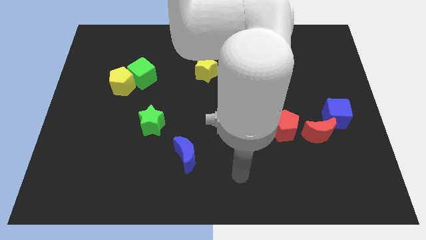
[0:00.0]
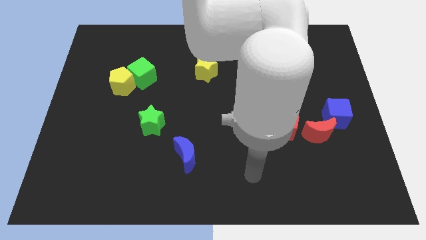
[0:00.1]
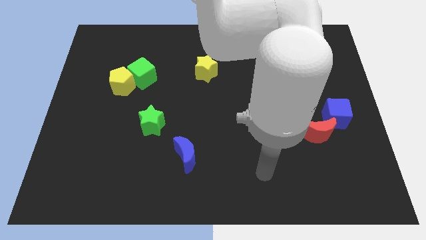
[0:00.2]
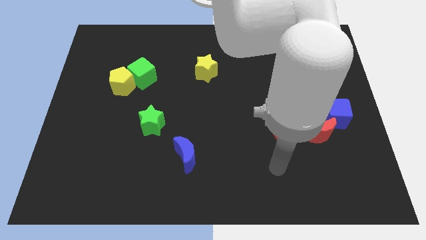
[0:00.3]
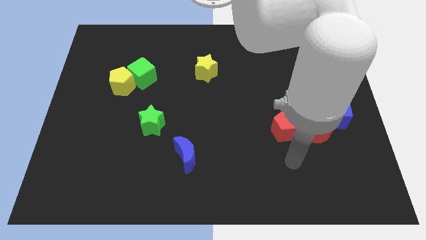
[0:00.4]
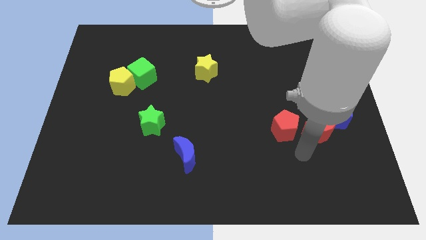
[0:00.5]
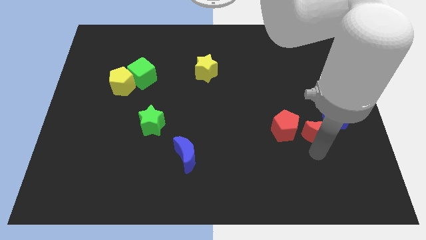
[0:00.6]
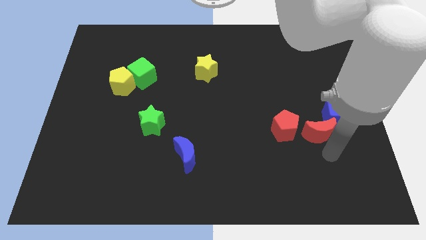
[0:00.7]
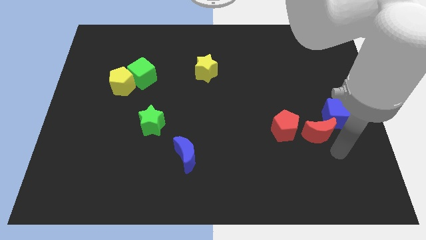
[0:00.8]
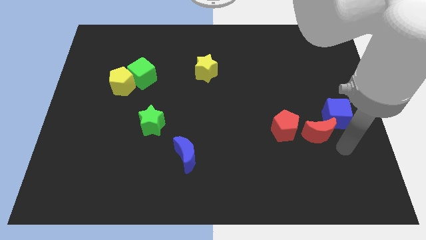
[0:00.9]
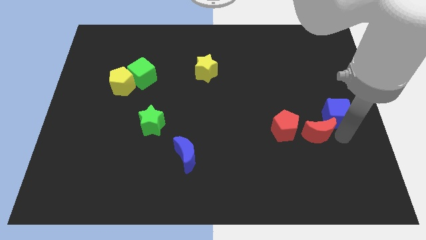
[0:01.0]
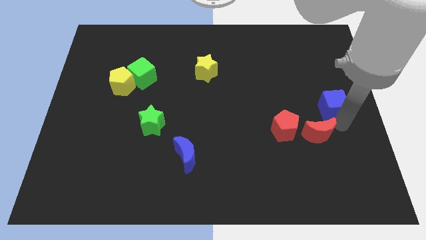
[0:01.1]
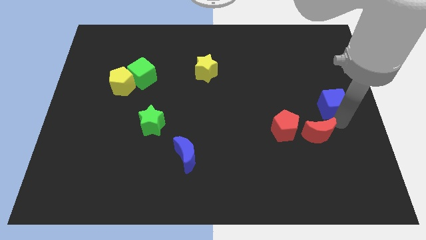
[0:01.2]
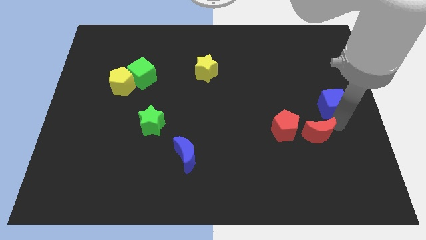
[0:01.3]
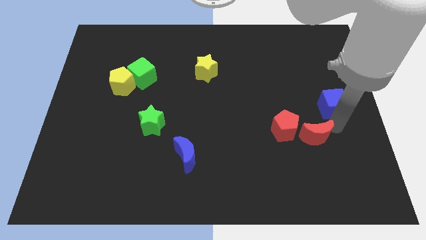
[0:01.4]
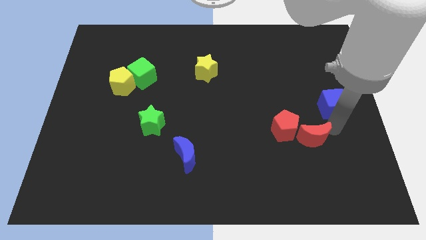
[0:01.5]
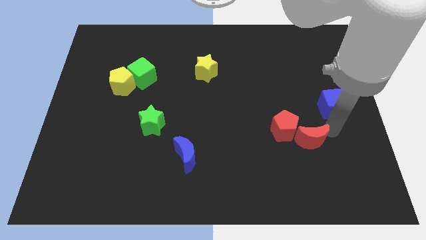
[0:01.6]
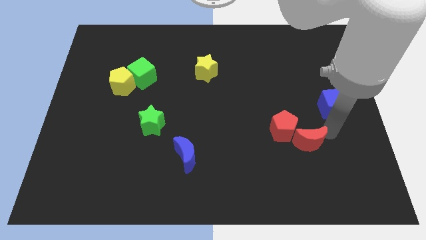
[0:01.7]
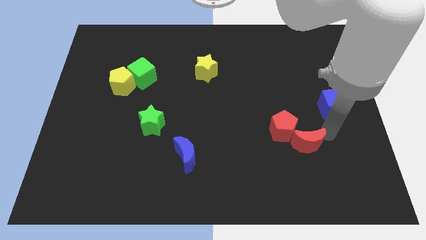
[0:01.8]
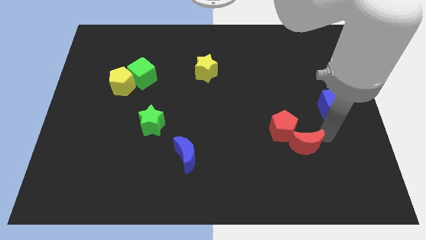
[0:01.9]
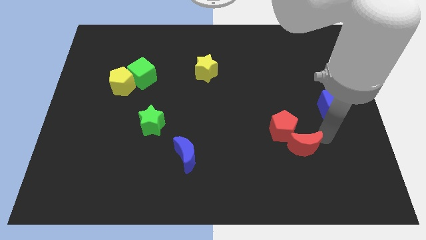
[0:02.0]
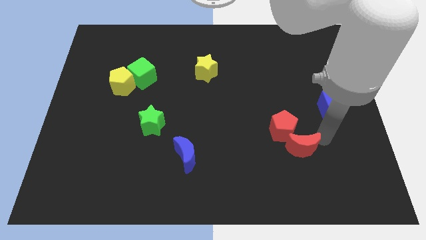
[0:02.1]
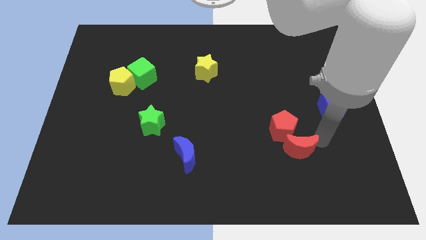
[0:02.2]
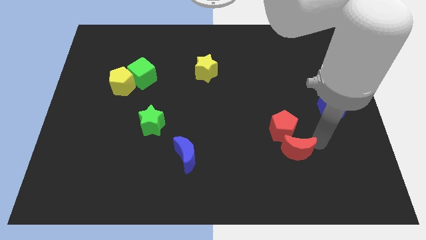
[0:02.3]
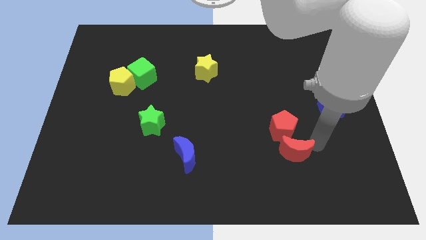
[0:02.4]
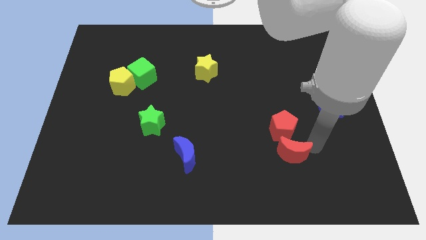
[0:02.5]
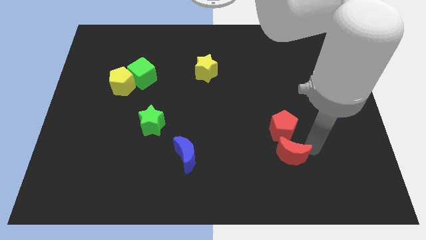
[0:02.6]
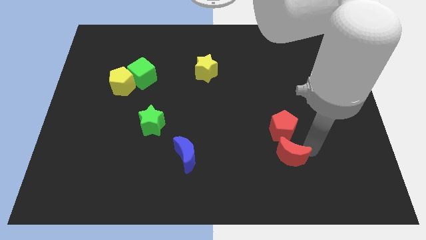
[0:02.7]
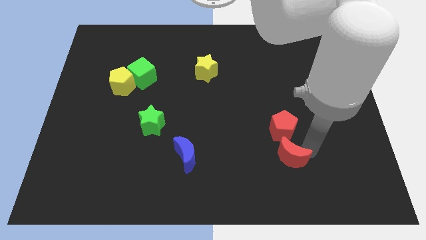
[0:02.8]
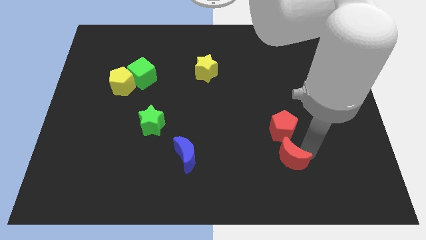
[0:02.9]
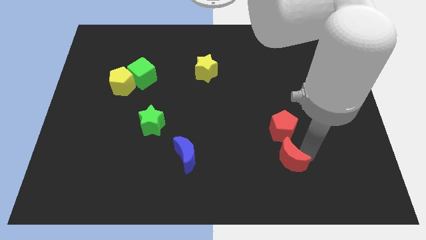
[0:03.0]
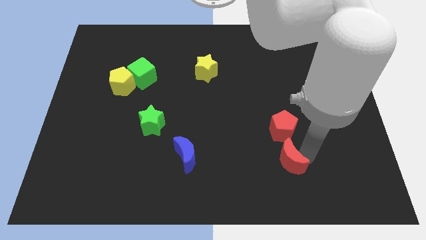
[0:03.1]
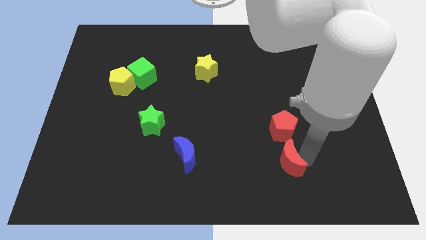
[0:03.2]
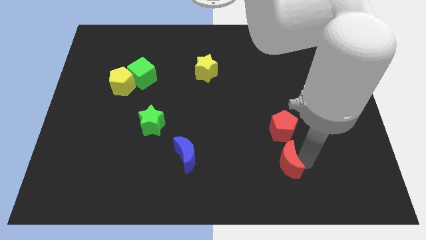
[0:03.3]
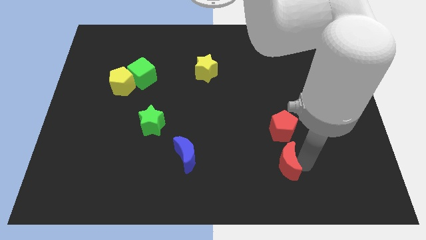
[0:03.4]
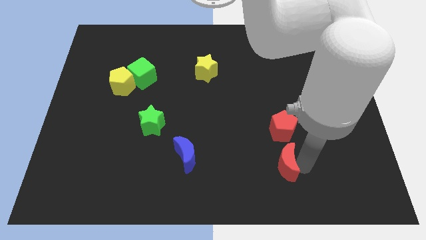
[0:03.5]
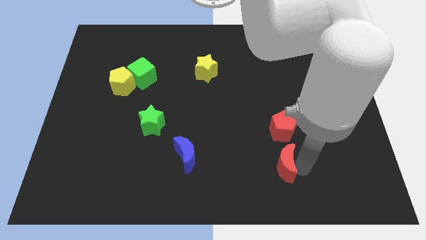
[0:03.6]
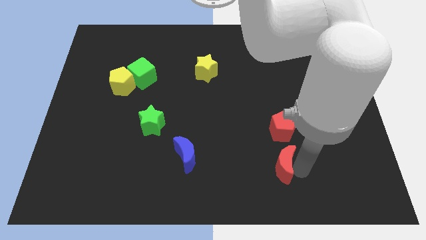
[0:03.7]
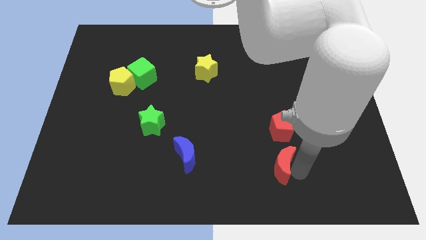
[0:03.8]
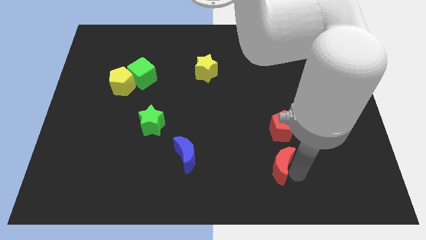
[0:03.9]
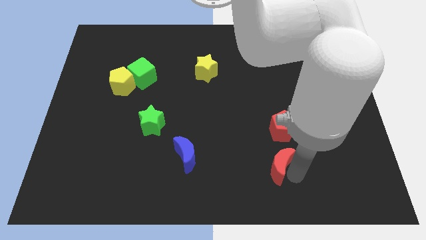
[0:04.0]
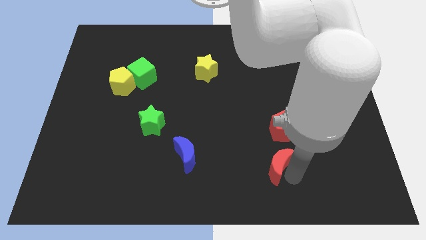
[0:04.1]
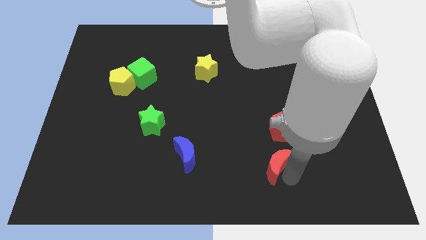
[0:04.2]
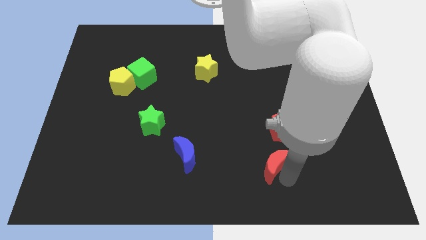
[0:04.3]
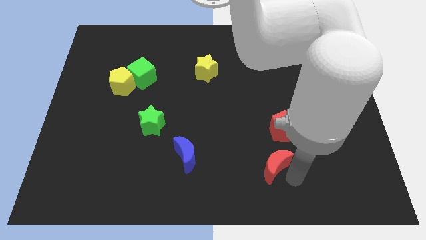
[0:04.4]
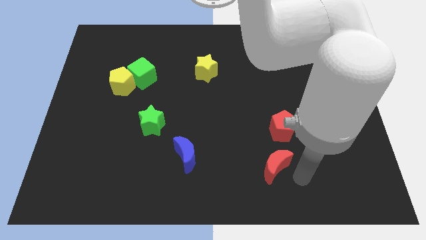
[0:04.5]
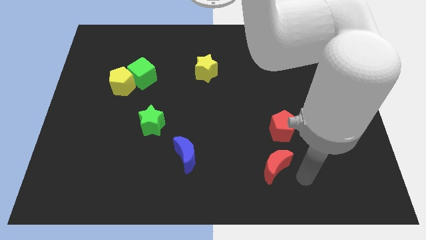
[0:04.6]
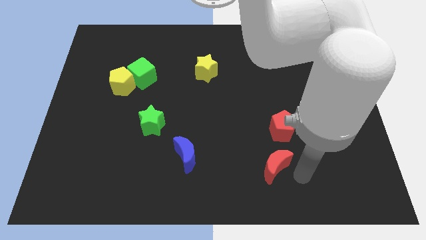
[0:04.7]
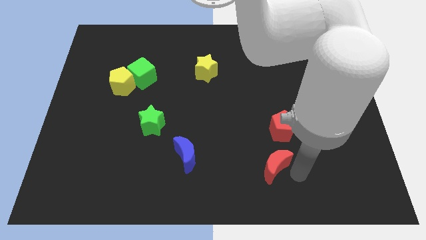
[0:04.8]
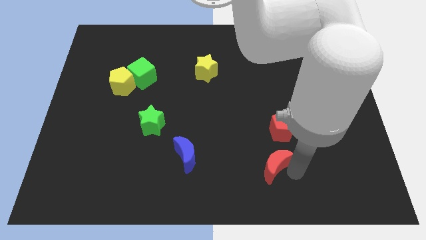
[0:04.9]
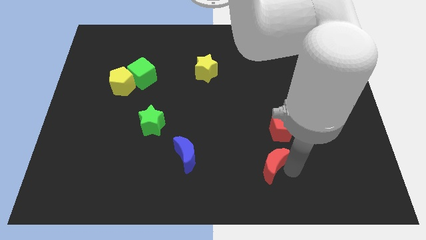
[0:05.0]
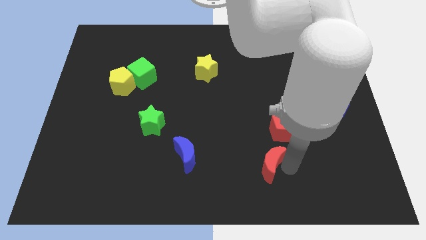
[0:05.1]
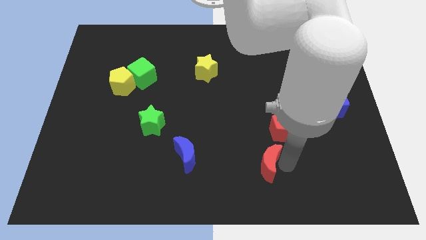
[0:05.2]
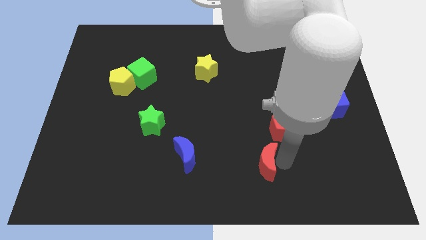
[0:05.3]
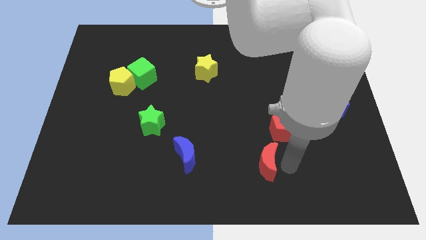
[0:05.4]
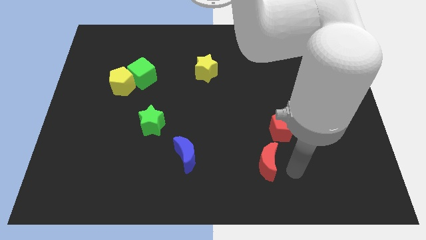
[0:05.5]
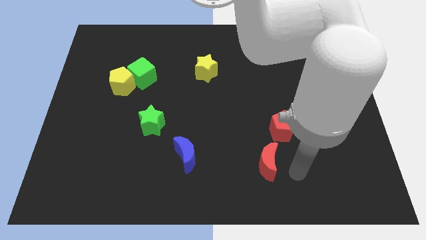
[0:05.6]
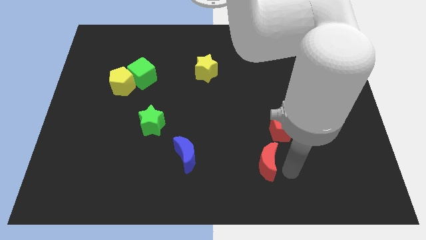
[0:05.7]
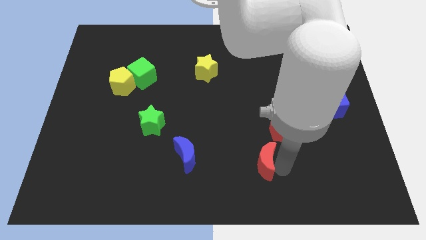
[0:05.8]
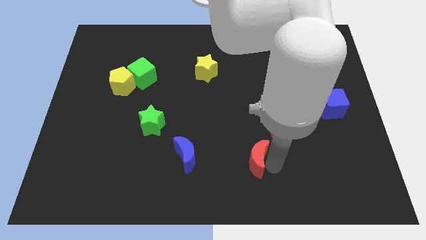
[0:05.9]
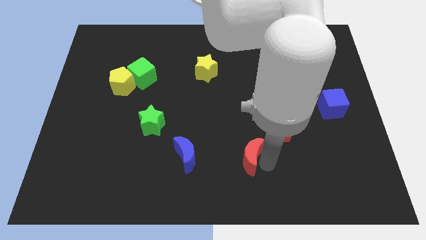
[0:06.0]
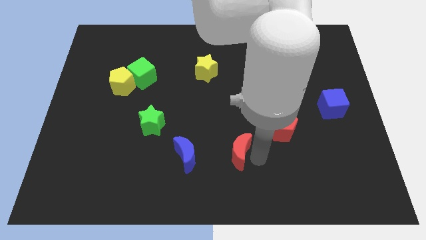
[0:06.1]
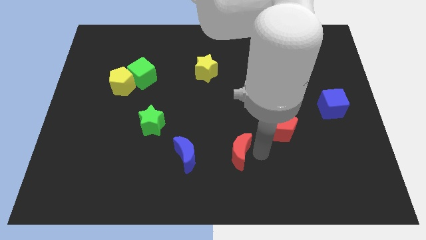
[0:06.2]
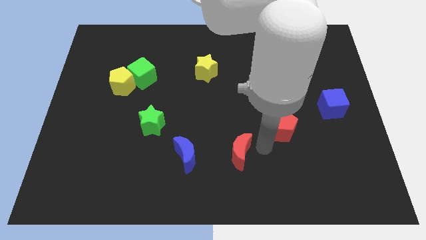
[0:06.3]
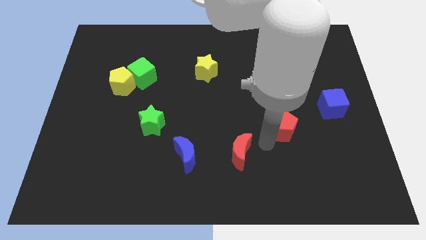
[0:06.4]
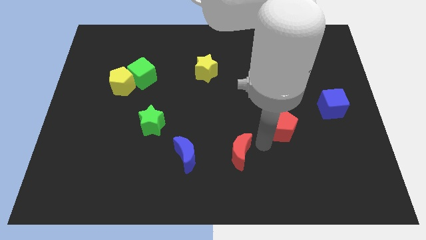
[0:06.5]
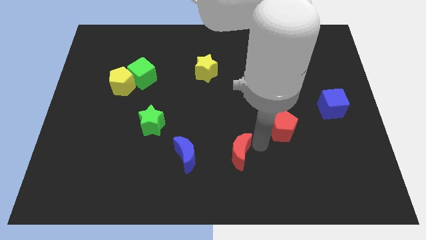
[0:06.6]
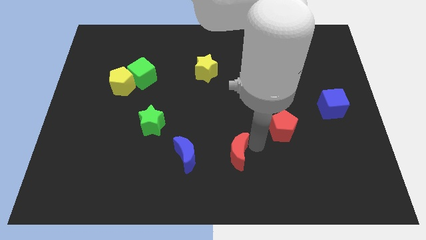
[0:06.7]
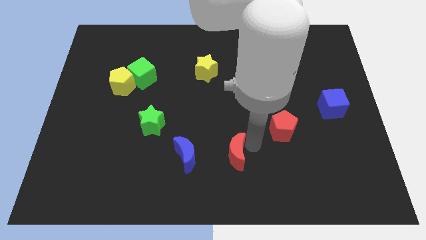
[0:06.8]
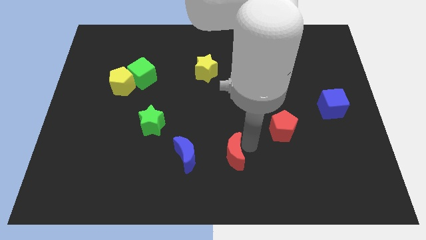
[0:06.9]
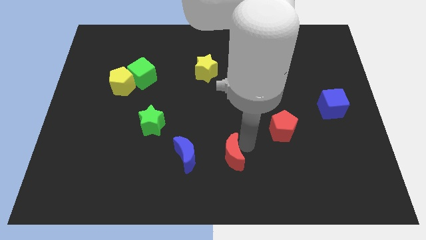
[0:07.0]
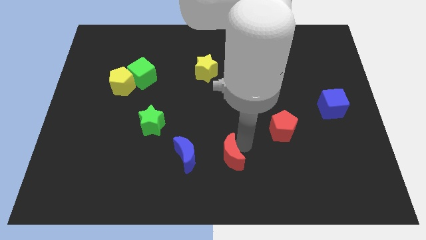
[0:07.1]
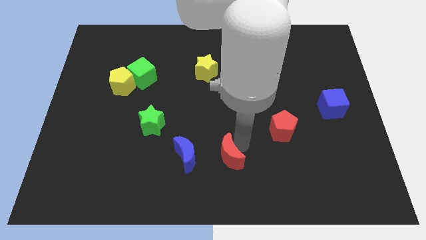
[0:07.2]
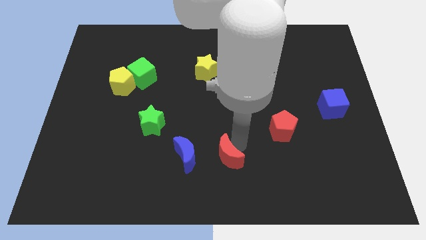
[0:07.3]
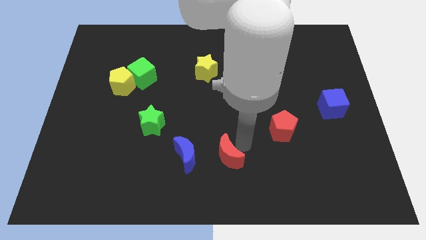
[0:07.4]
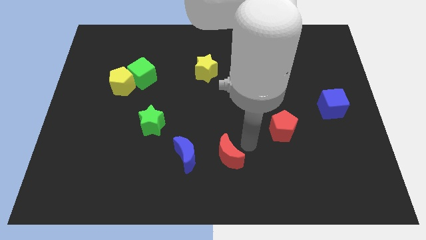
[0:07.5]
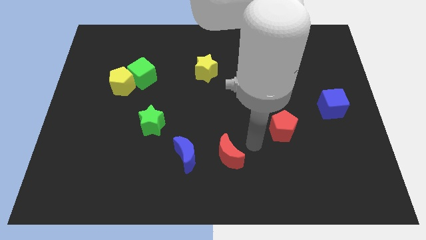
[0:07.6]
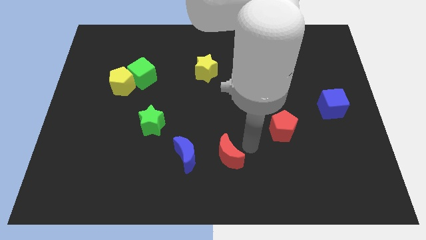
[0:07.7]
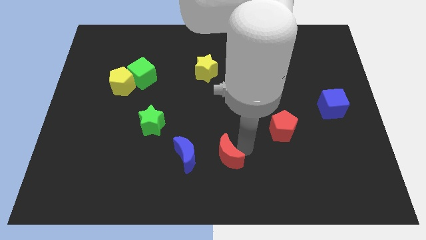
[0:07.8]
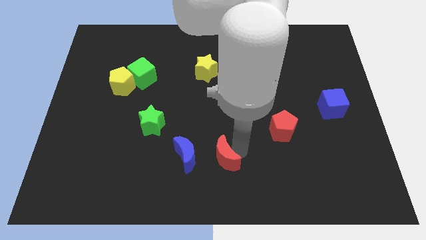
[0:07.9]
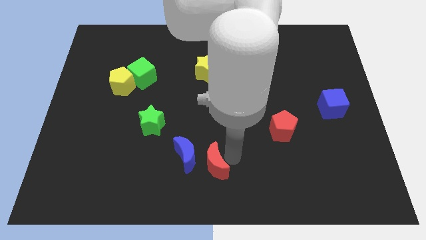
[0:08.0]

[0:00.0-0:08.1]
put the red moon close to the blue moon
